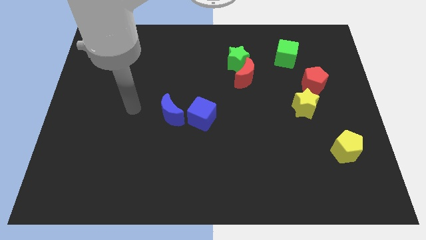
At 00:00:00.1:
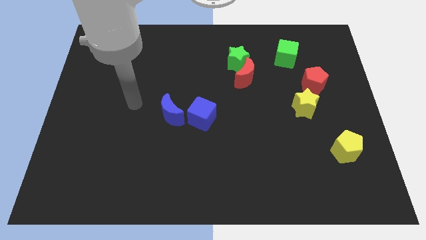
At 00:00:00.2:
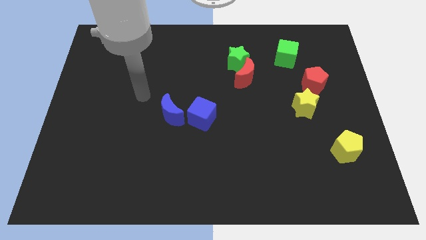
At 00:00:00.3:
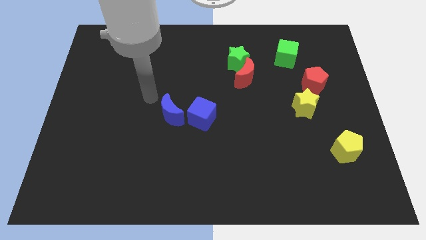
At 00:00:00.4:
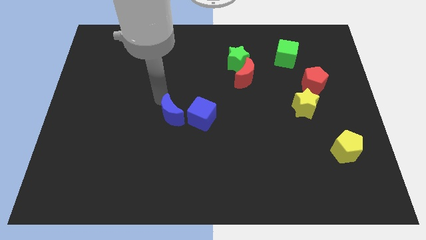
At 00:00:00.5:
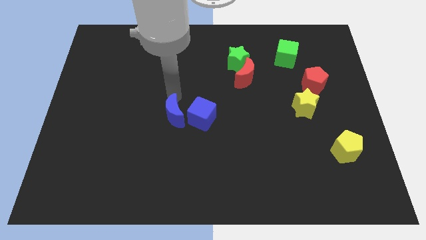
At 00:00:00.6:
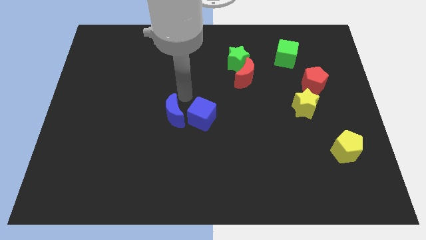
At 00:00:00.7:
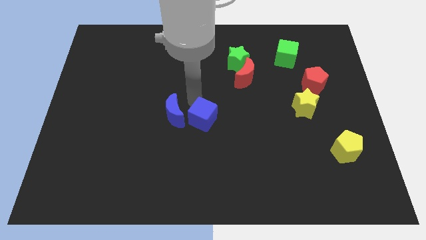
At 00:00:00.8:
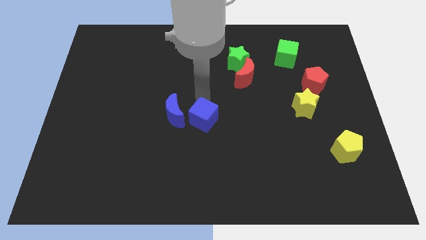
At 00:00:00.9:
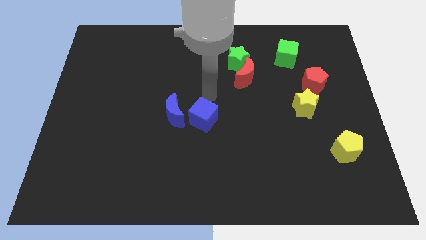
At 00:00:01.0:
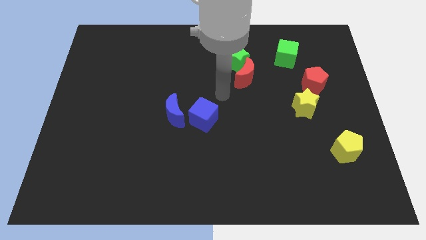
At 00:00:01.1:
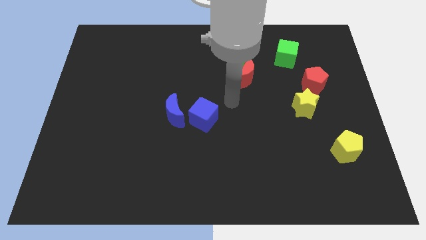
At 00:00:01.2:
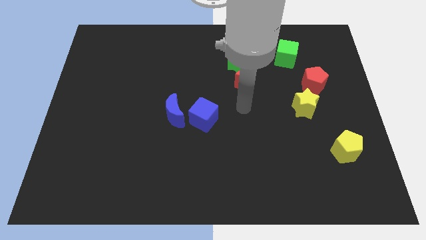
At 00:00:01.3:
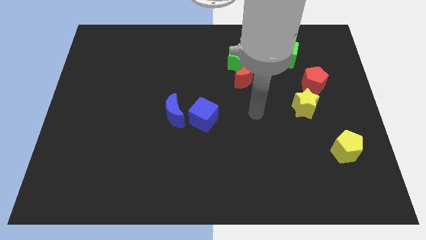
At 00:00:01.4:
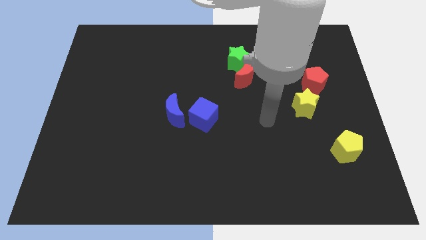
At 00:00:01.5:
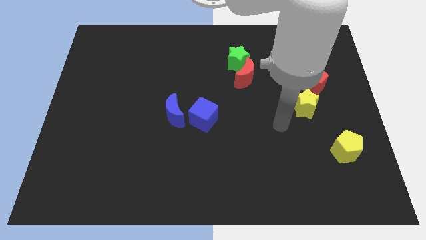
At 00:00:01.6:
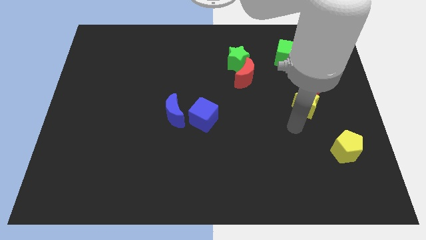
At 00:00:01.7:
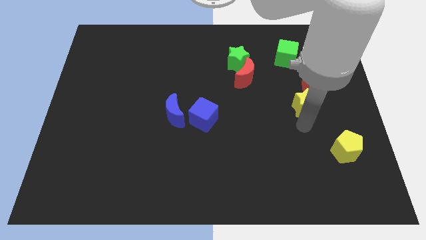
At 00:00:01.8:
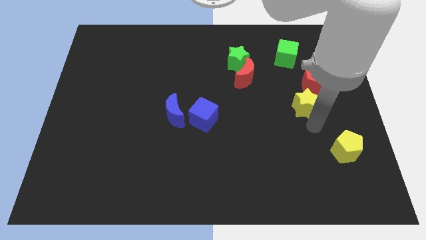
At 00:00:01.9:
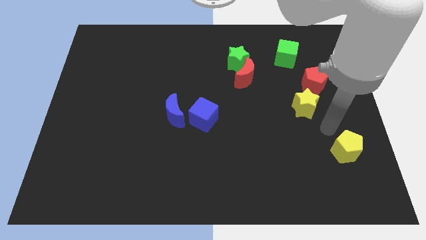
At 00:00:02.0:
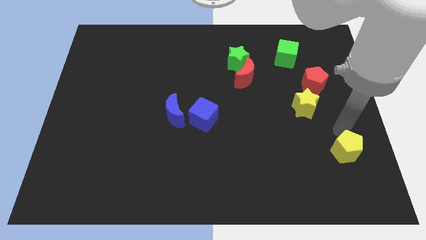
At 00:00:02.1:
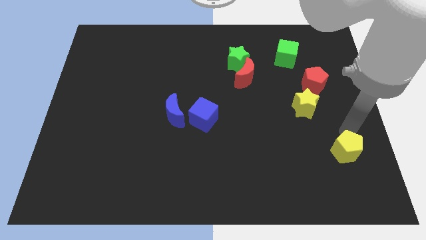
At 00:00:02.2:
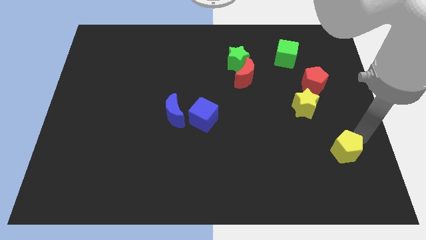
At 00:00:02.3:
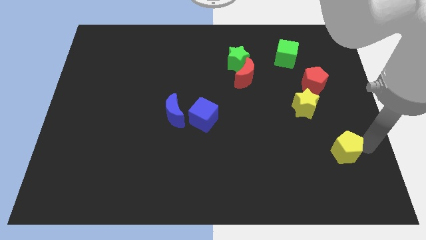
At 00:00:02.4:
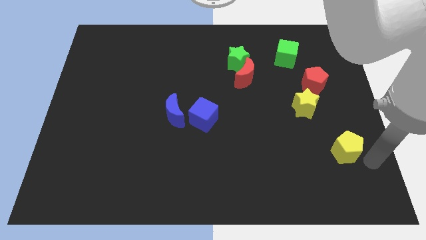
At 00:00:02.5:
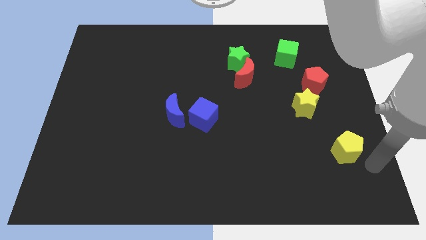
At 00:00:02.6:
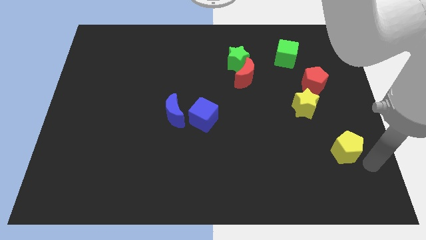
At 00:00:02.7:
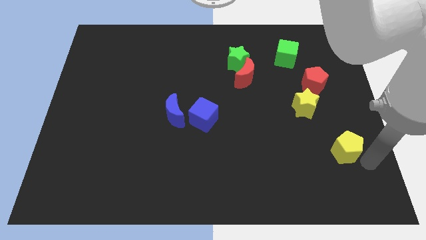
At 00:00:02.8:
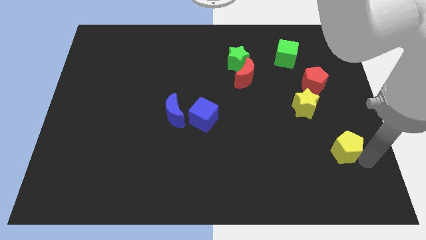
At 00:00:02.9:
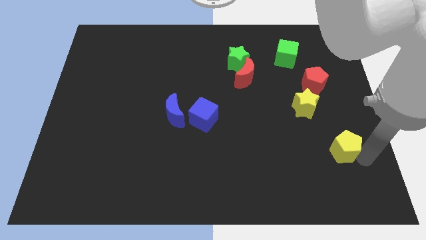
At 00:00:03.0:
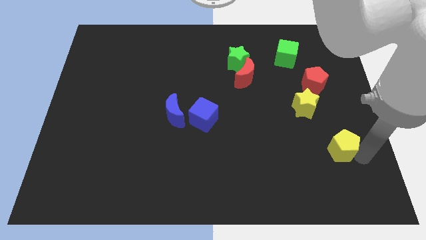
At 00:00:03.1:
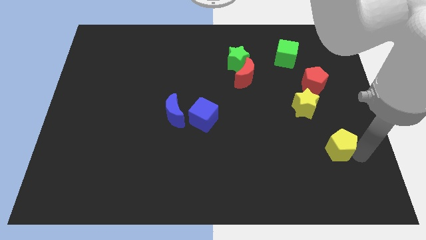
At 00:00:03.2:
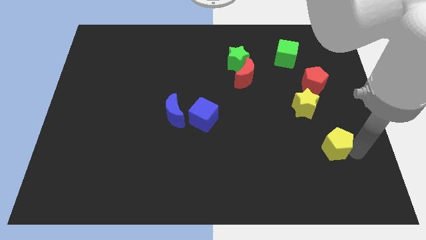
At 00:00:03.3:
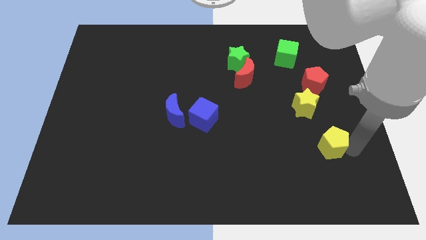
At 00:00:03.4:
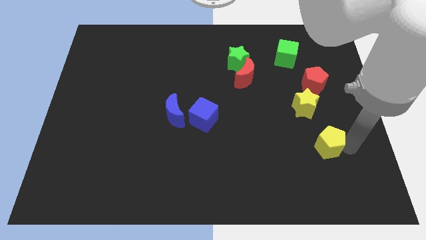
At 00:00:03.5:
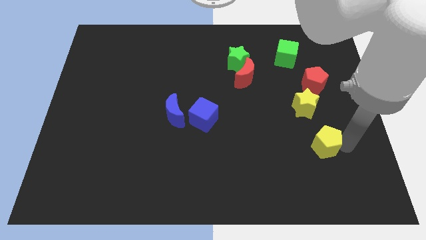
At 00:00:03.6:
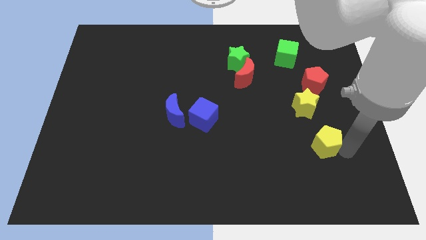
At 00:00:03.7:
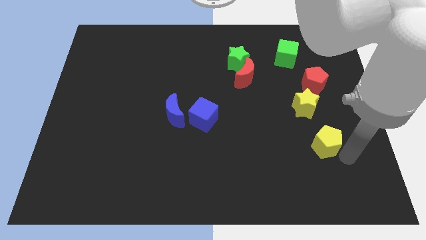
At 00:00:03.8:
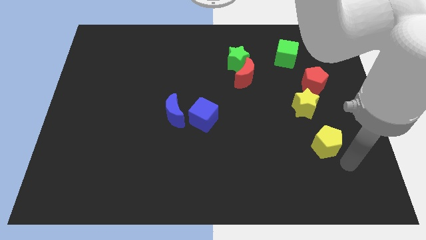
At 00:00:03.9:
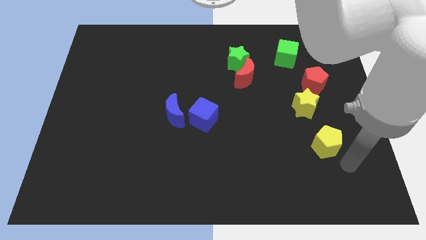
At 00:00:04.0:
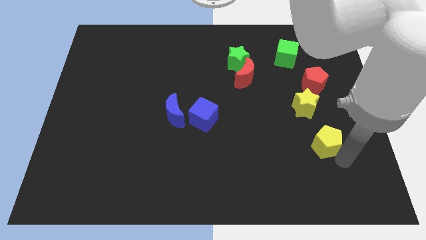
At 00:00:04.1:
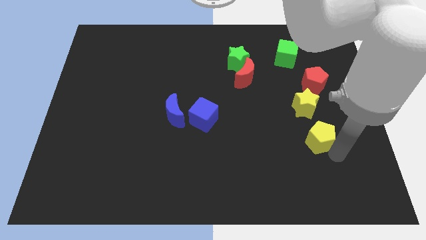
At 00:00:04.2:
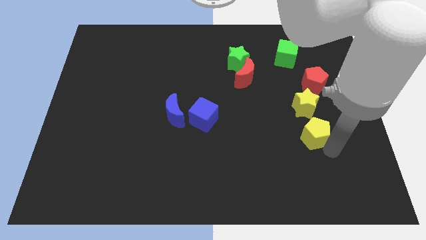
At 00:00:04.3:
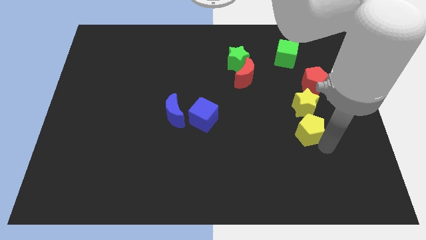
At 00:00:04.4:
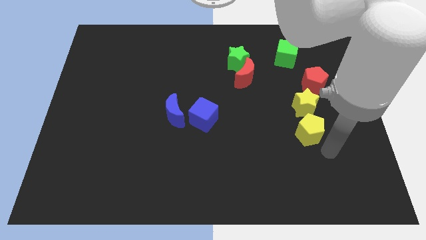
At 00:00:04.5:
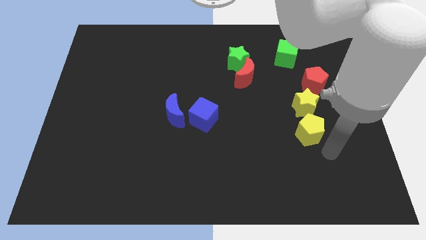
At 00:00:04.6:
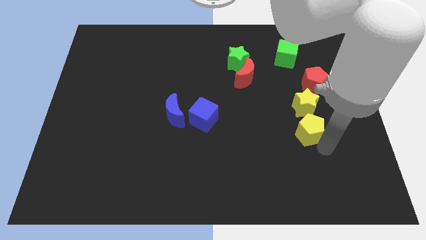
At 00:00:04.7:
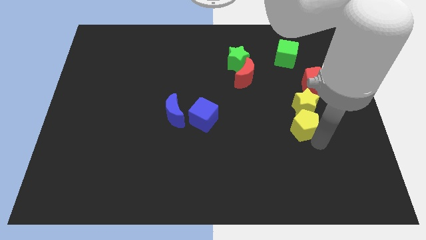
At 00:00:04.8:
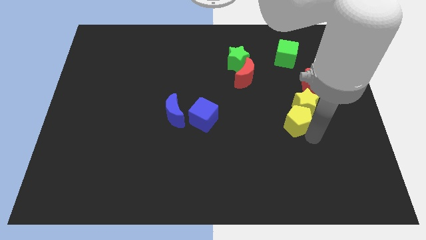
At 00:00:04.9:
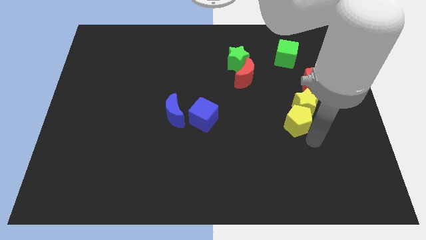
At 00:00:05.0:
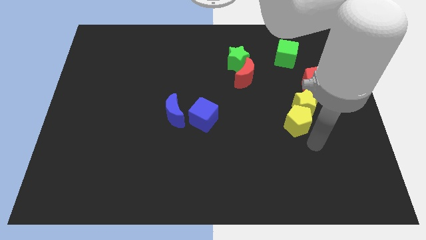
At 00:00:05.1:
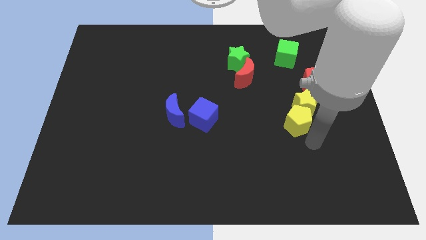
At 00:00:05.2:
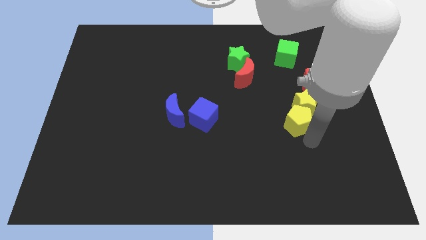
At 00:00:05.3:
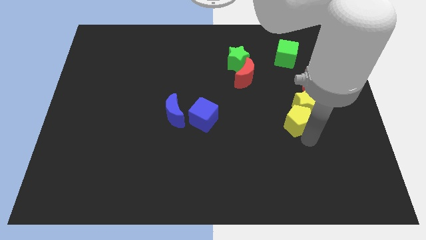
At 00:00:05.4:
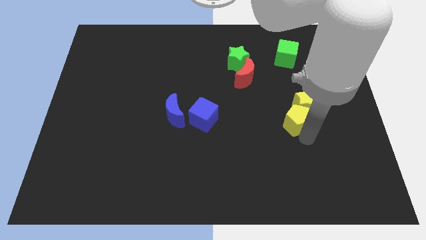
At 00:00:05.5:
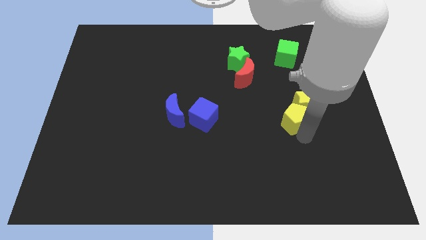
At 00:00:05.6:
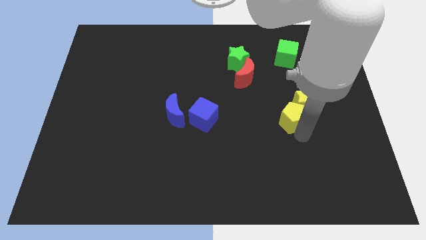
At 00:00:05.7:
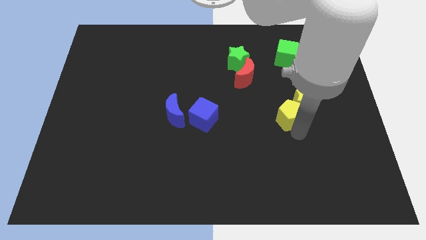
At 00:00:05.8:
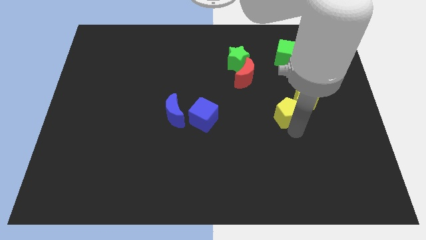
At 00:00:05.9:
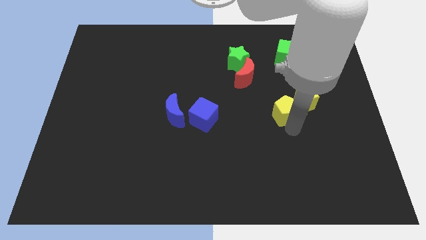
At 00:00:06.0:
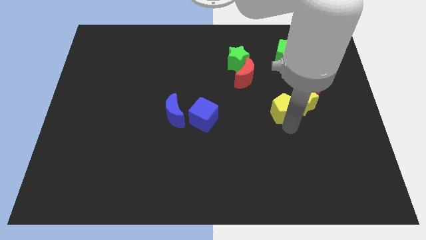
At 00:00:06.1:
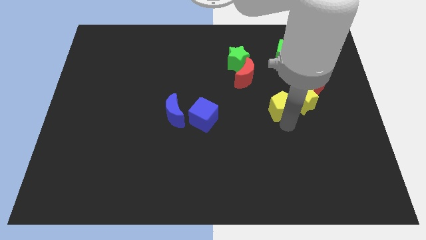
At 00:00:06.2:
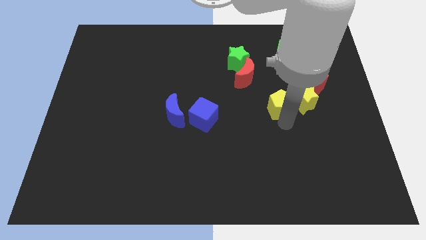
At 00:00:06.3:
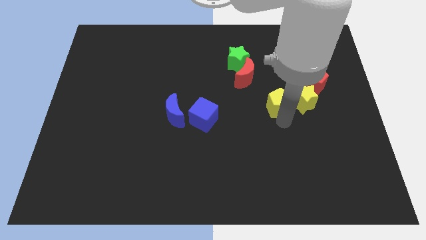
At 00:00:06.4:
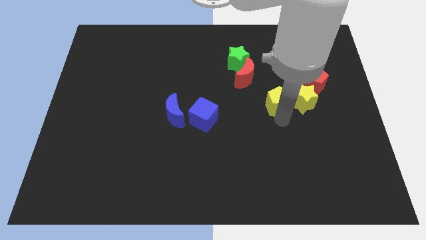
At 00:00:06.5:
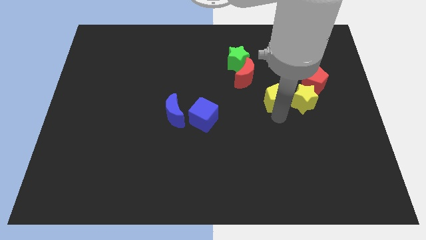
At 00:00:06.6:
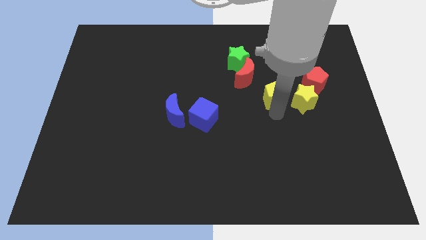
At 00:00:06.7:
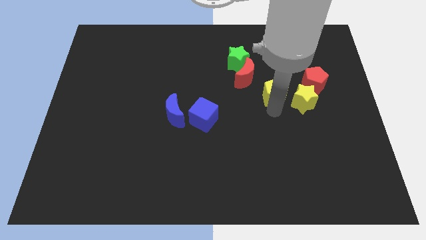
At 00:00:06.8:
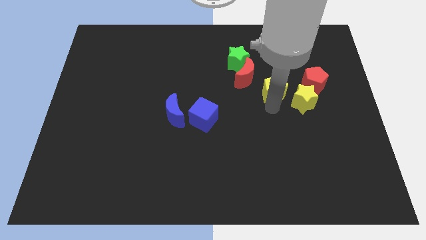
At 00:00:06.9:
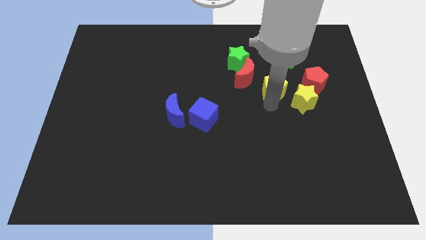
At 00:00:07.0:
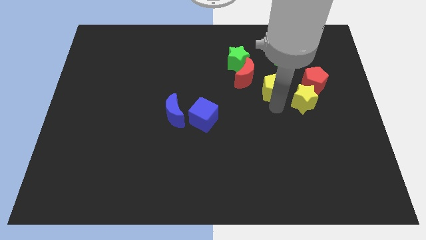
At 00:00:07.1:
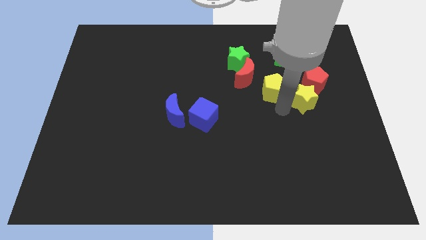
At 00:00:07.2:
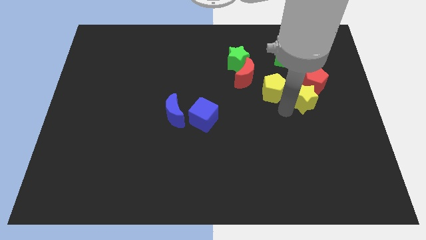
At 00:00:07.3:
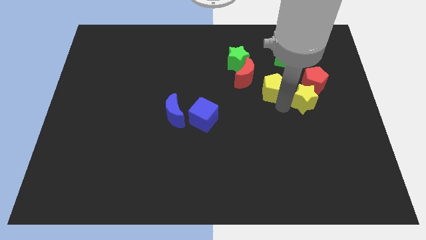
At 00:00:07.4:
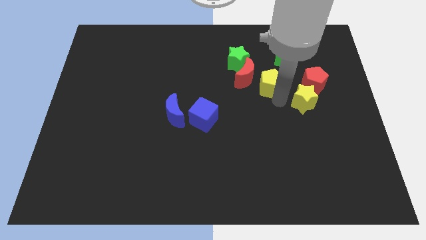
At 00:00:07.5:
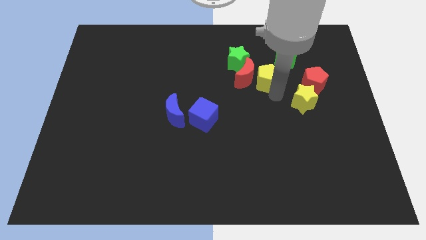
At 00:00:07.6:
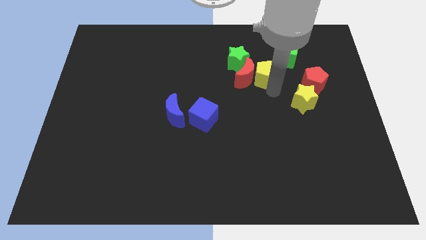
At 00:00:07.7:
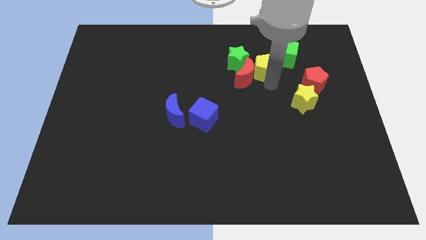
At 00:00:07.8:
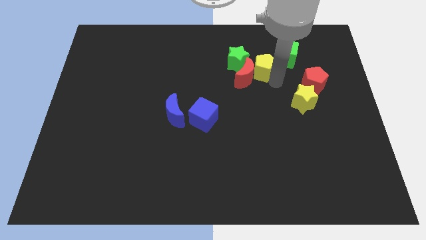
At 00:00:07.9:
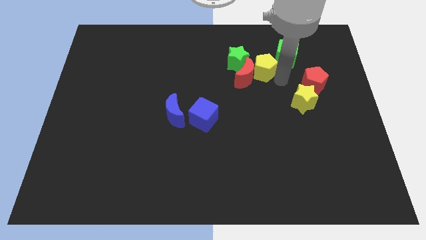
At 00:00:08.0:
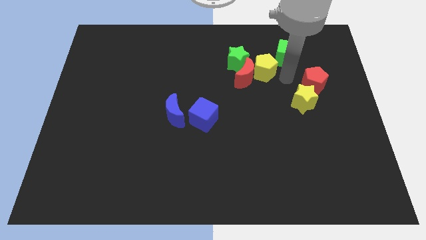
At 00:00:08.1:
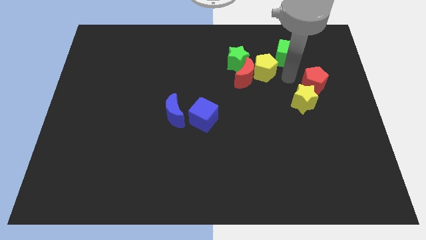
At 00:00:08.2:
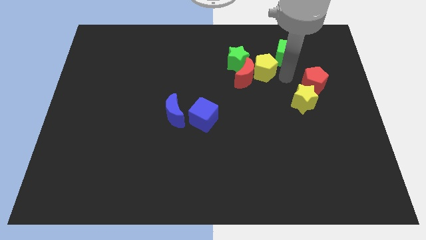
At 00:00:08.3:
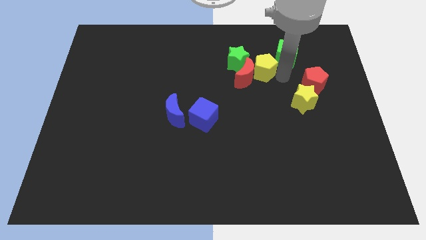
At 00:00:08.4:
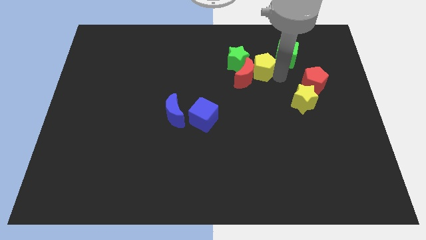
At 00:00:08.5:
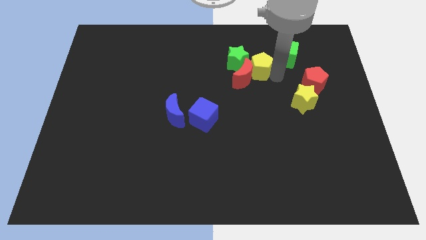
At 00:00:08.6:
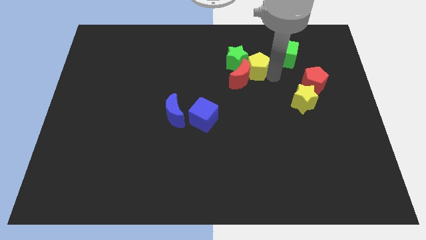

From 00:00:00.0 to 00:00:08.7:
put the yellow pentagon next to the green star
